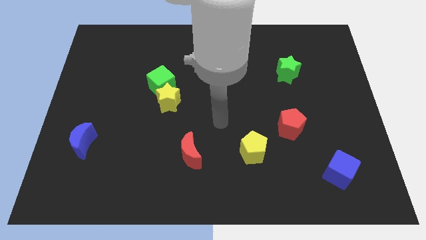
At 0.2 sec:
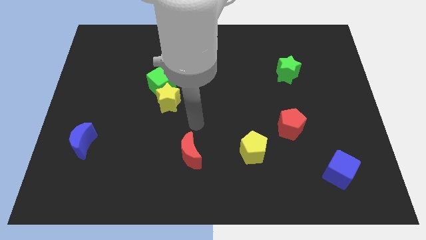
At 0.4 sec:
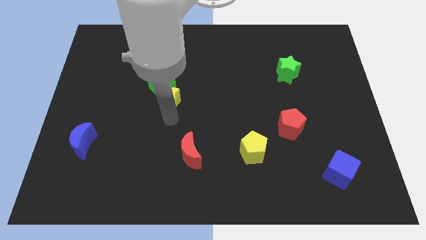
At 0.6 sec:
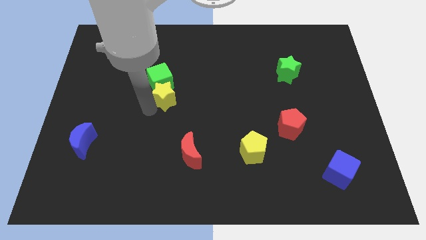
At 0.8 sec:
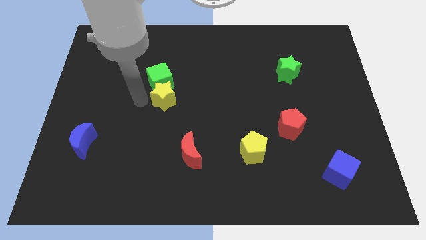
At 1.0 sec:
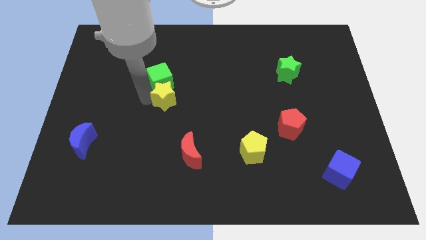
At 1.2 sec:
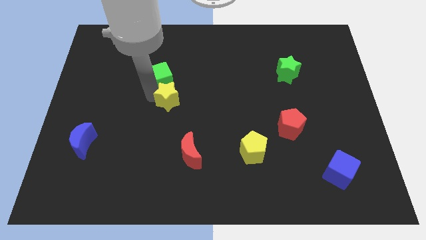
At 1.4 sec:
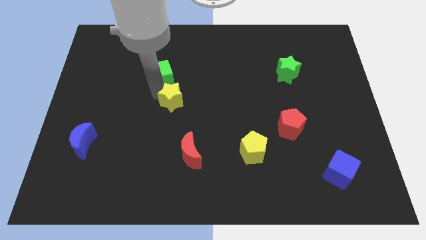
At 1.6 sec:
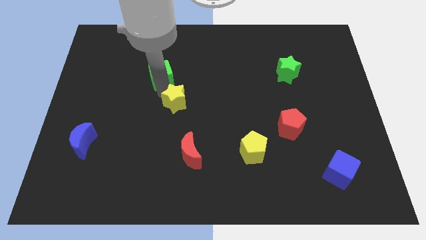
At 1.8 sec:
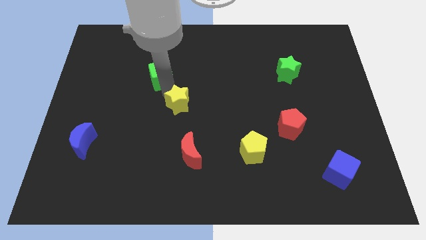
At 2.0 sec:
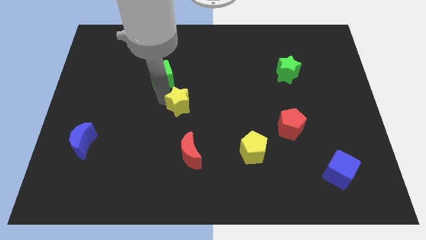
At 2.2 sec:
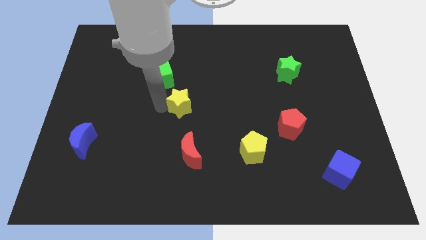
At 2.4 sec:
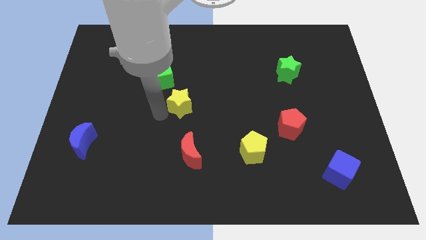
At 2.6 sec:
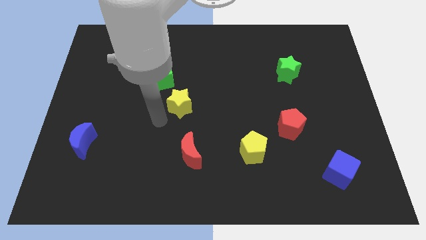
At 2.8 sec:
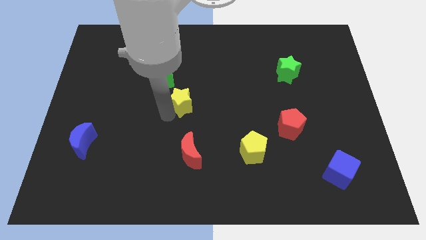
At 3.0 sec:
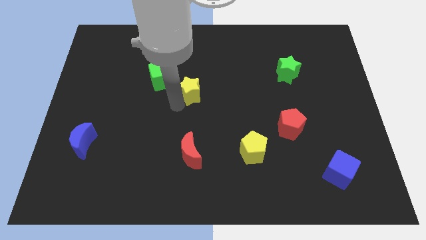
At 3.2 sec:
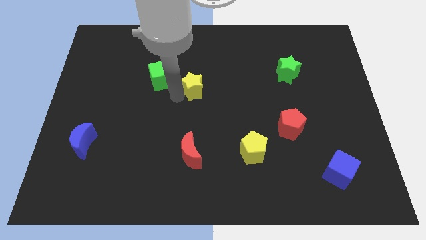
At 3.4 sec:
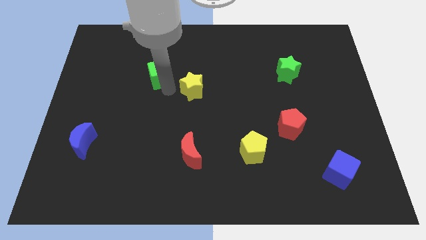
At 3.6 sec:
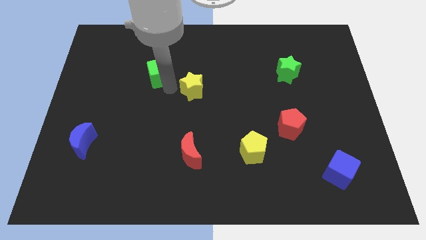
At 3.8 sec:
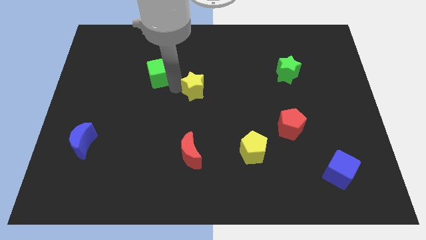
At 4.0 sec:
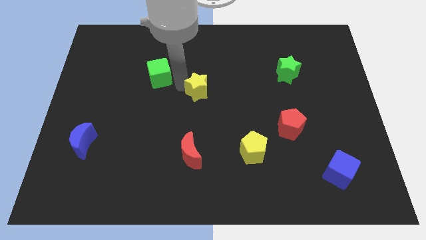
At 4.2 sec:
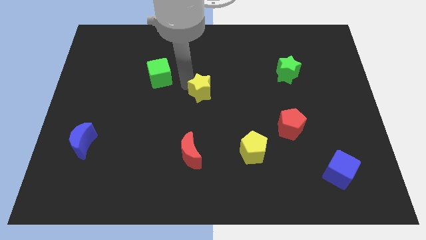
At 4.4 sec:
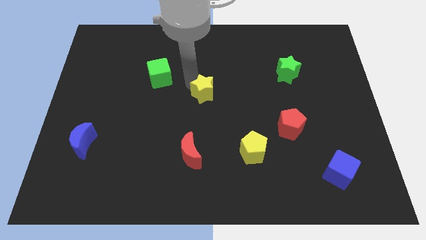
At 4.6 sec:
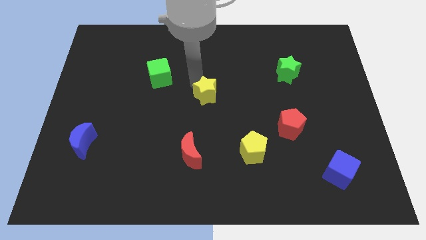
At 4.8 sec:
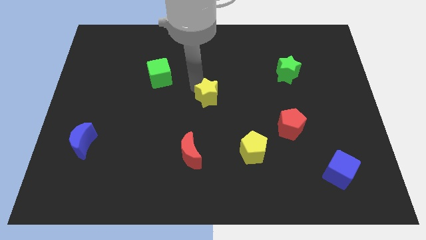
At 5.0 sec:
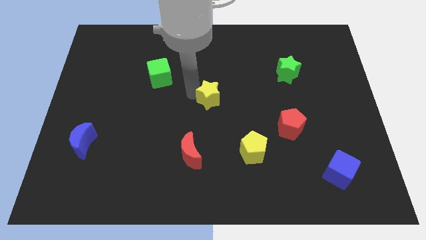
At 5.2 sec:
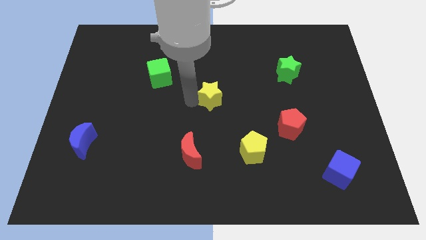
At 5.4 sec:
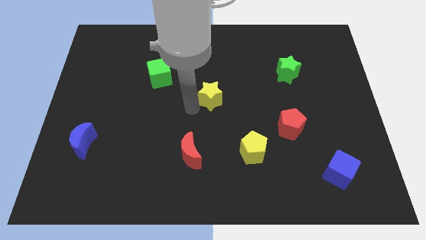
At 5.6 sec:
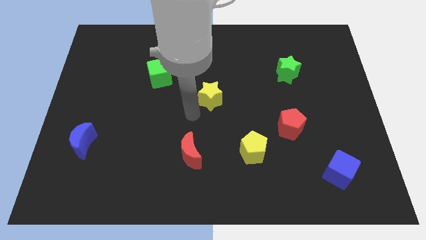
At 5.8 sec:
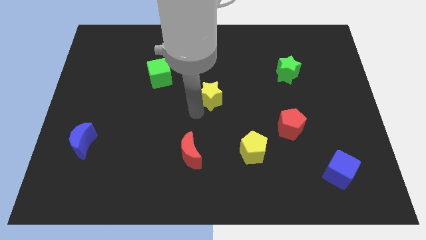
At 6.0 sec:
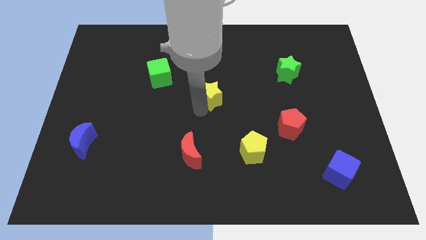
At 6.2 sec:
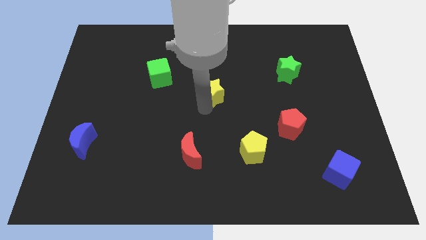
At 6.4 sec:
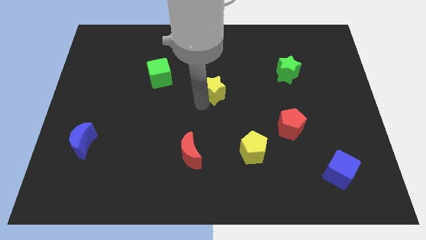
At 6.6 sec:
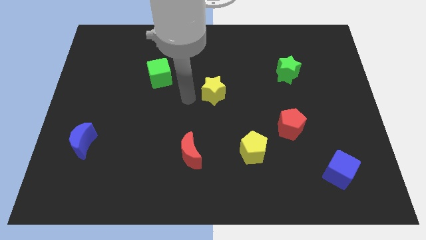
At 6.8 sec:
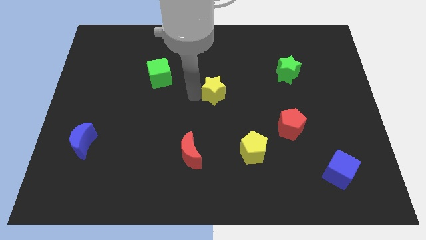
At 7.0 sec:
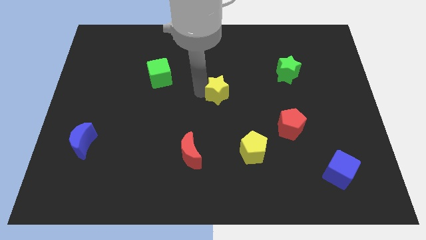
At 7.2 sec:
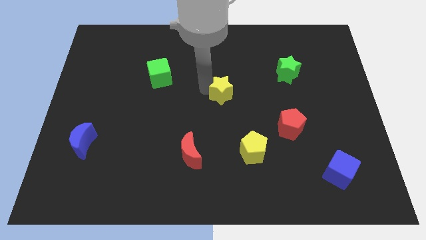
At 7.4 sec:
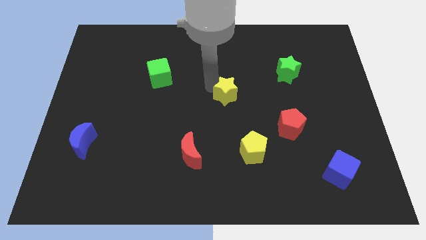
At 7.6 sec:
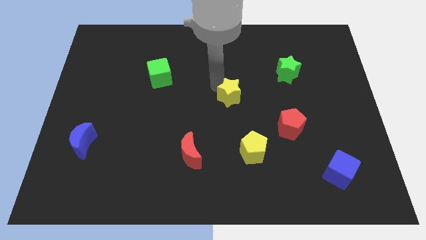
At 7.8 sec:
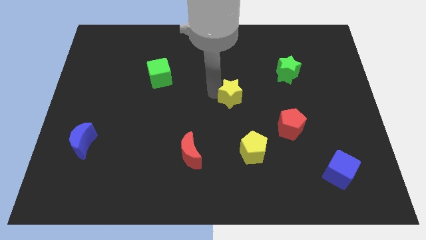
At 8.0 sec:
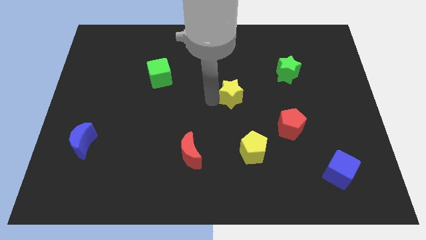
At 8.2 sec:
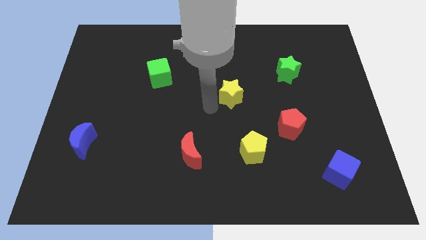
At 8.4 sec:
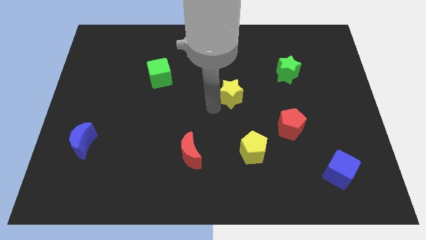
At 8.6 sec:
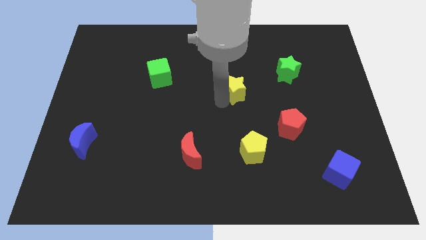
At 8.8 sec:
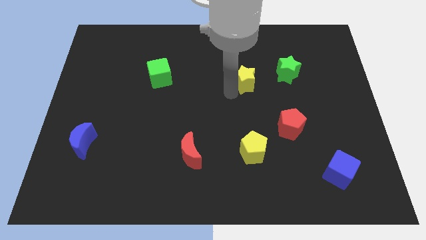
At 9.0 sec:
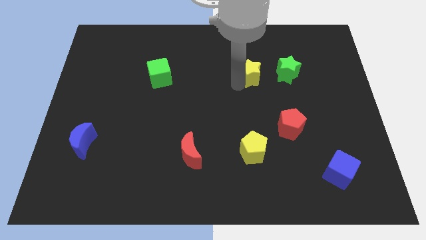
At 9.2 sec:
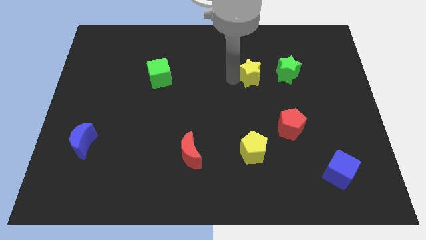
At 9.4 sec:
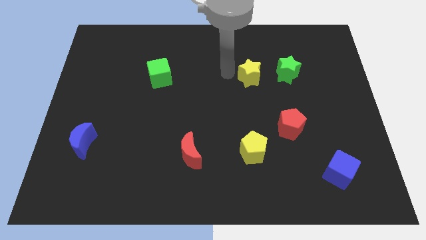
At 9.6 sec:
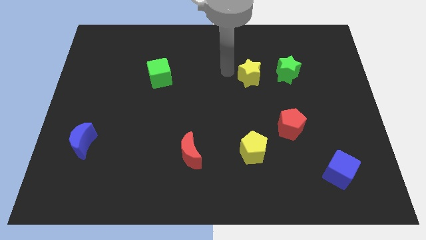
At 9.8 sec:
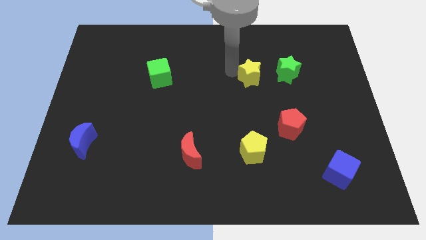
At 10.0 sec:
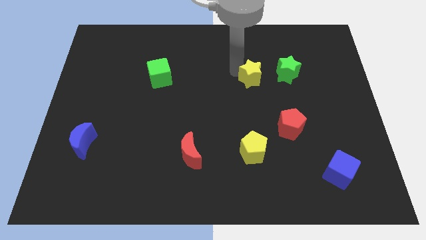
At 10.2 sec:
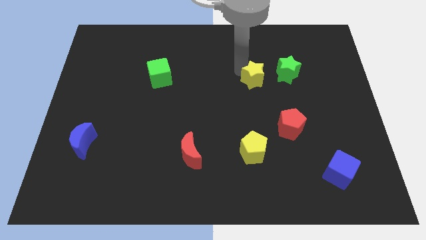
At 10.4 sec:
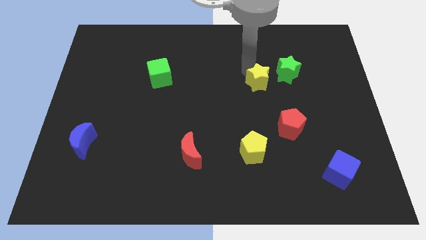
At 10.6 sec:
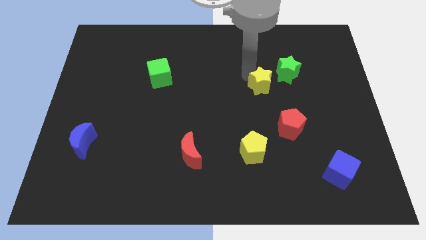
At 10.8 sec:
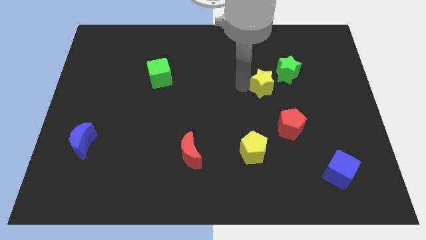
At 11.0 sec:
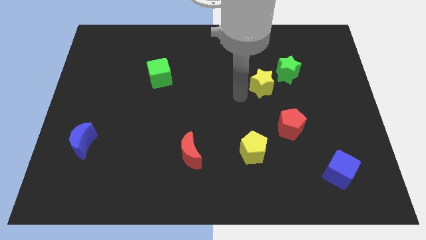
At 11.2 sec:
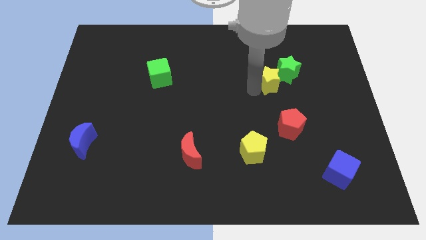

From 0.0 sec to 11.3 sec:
slide the yellow star to the green star

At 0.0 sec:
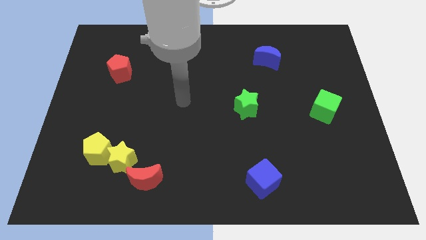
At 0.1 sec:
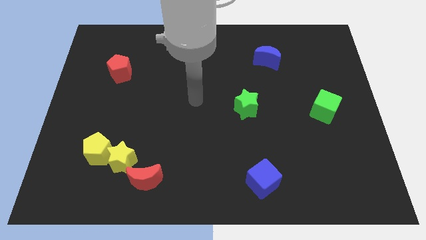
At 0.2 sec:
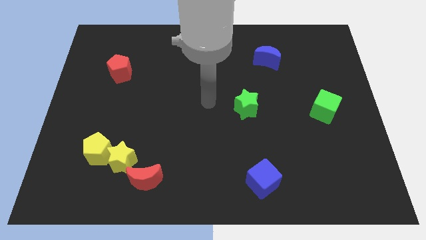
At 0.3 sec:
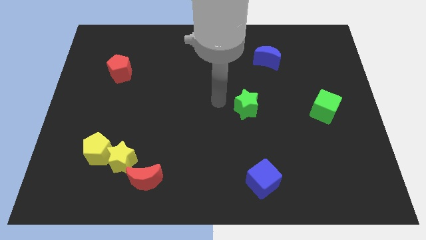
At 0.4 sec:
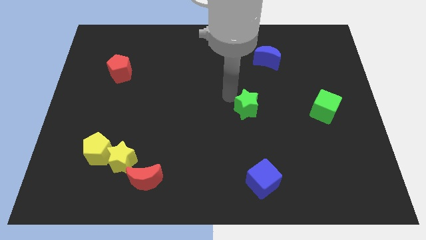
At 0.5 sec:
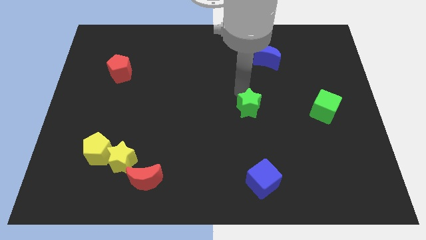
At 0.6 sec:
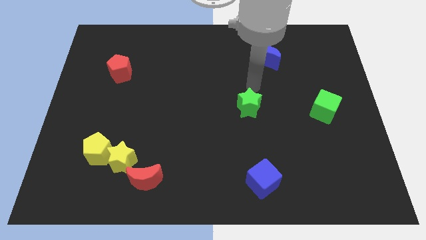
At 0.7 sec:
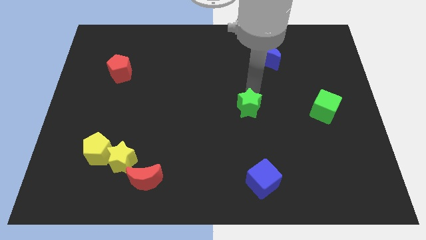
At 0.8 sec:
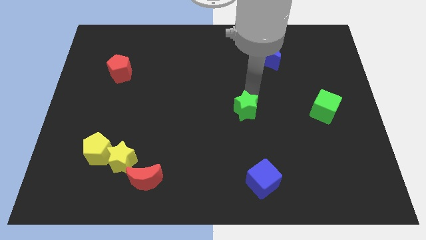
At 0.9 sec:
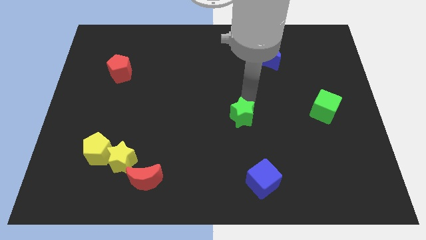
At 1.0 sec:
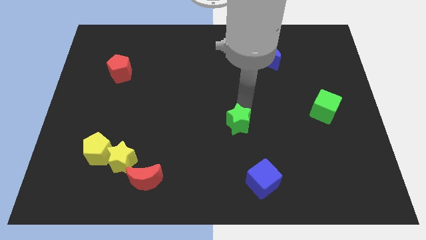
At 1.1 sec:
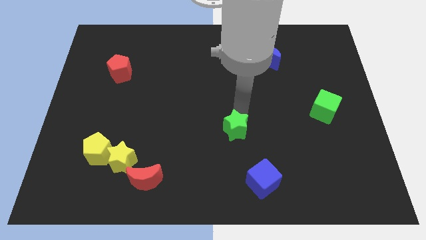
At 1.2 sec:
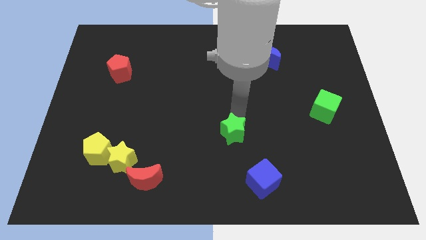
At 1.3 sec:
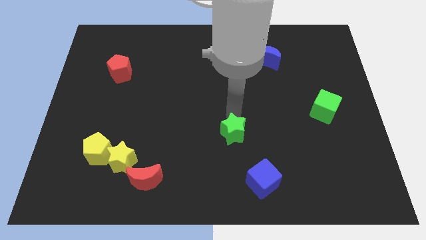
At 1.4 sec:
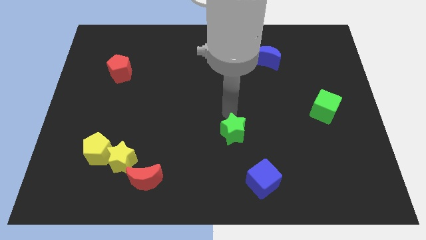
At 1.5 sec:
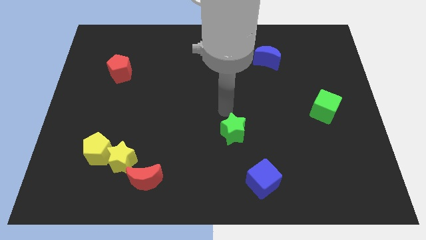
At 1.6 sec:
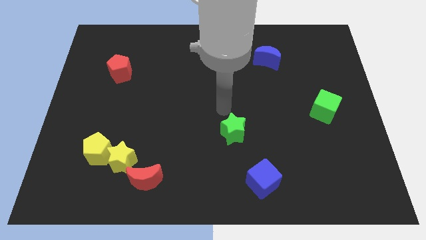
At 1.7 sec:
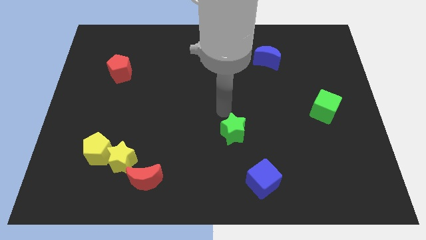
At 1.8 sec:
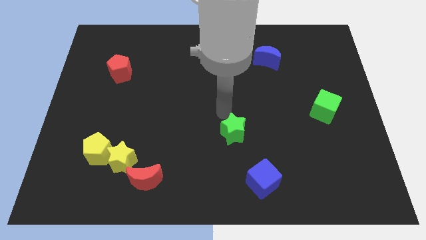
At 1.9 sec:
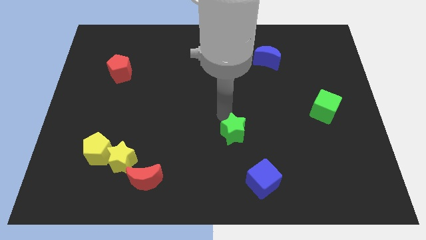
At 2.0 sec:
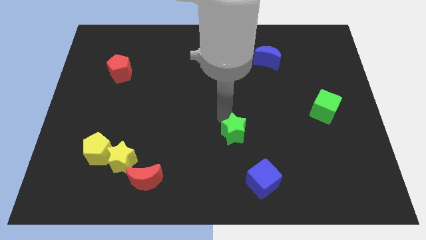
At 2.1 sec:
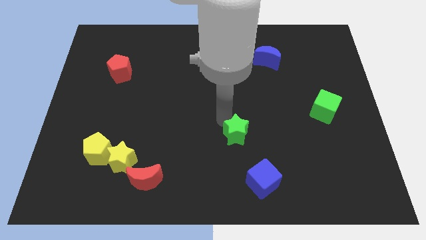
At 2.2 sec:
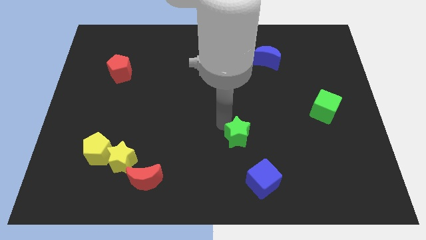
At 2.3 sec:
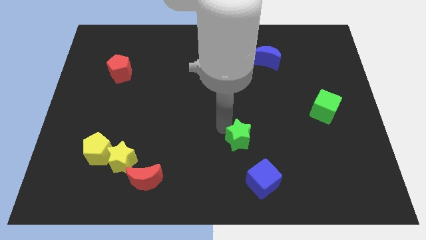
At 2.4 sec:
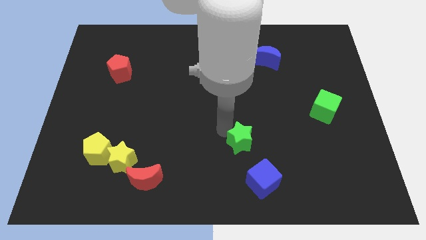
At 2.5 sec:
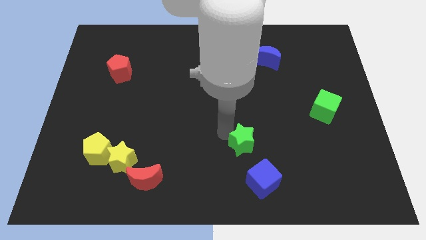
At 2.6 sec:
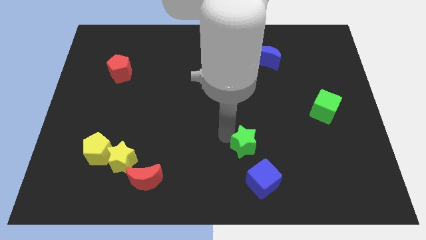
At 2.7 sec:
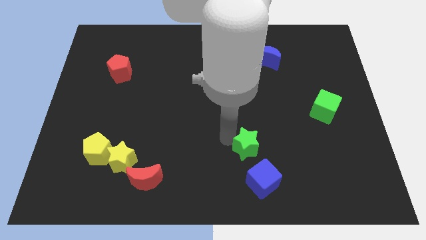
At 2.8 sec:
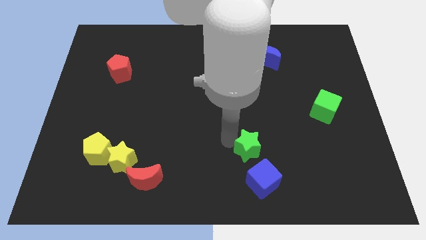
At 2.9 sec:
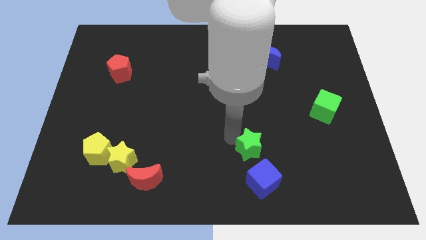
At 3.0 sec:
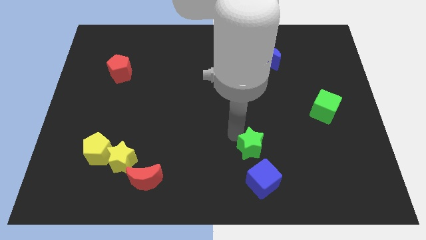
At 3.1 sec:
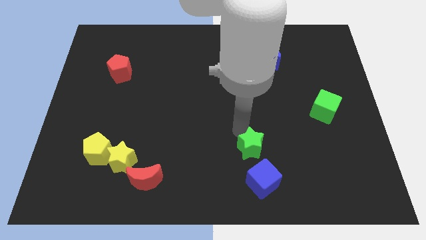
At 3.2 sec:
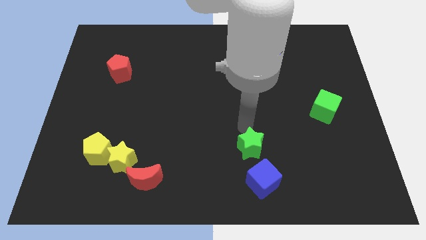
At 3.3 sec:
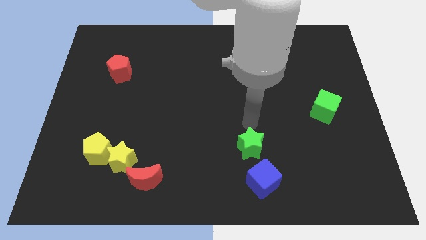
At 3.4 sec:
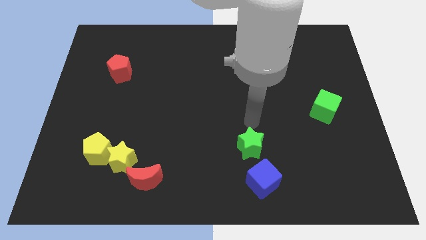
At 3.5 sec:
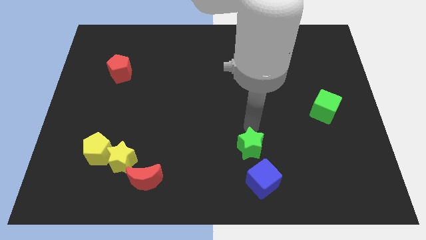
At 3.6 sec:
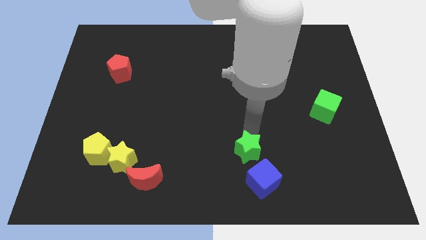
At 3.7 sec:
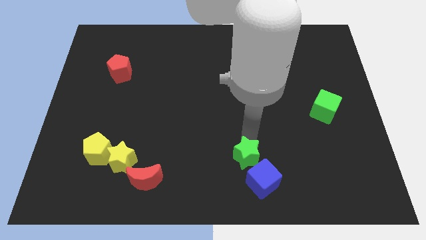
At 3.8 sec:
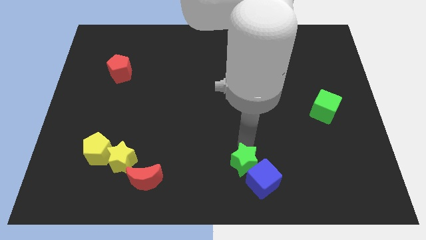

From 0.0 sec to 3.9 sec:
put the green star next to the blue cube
